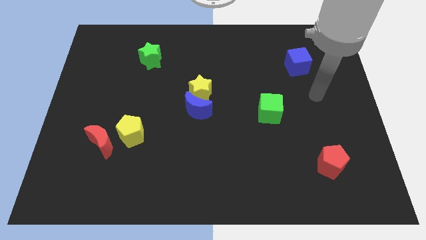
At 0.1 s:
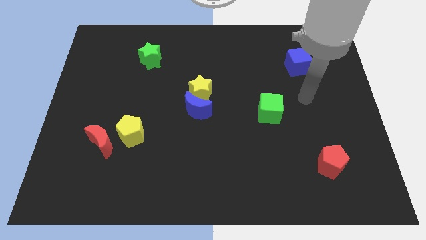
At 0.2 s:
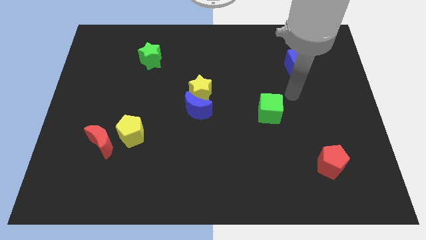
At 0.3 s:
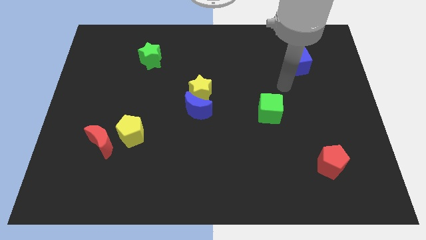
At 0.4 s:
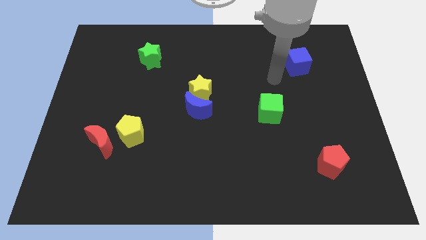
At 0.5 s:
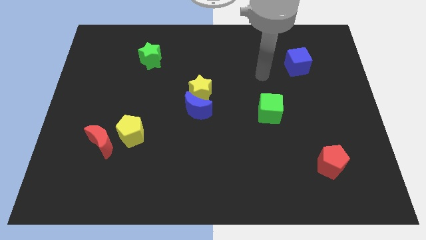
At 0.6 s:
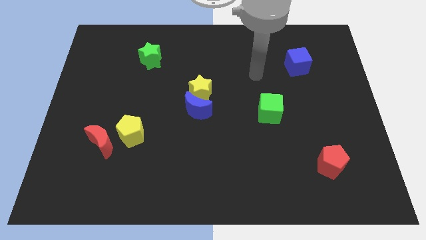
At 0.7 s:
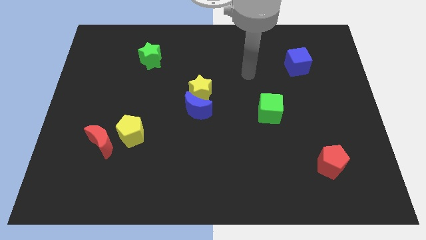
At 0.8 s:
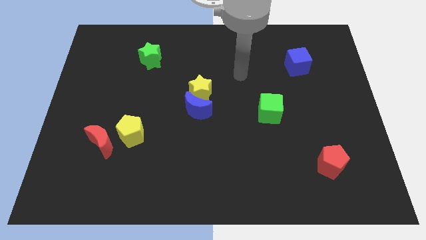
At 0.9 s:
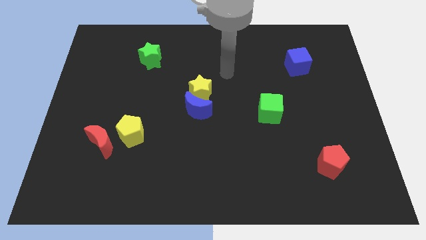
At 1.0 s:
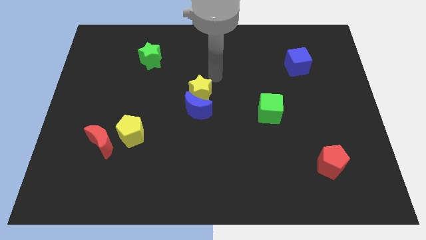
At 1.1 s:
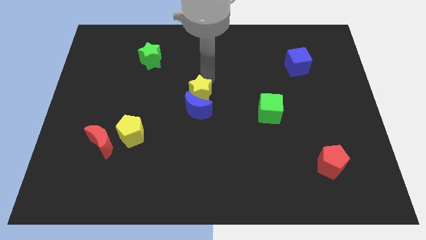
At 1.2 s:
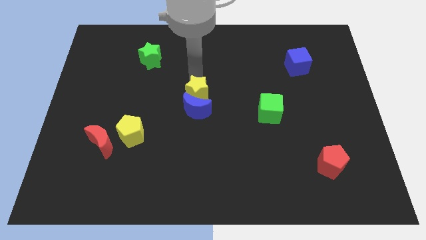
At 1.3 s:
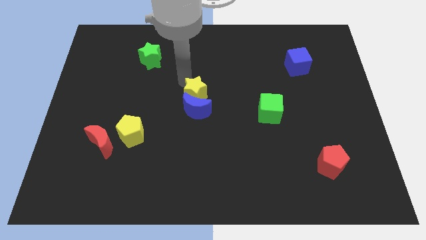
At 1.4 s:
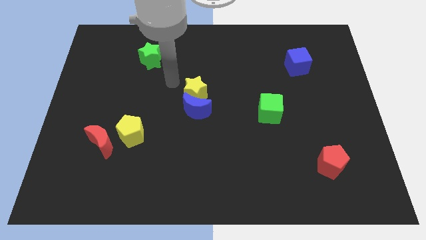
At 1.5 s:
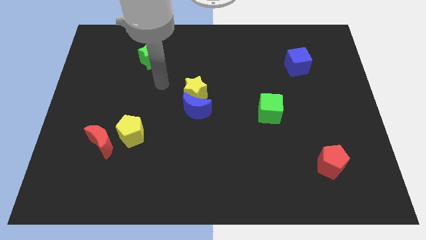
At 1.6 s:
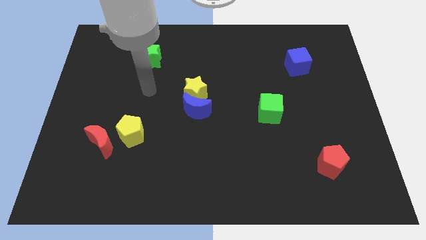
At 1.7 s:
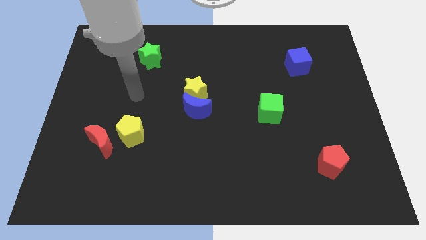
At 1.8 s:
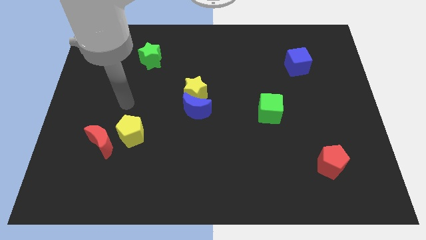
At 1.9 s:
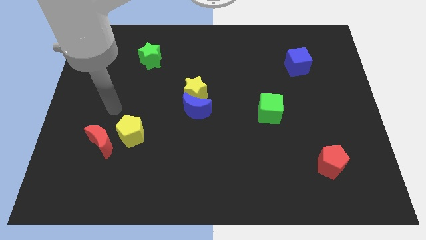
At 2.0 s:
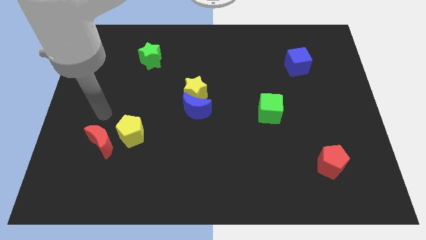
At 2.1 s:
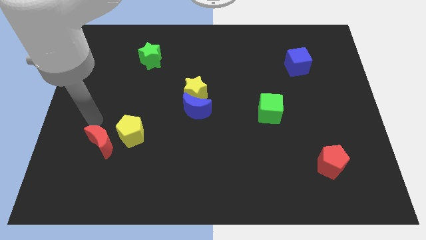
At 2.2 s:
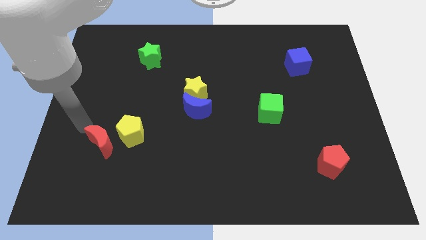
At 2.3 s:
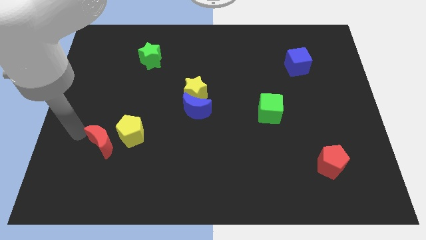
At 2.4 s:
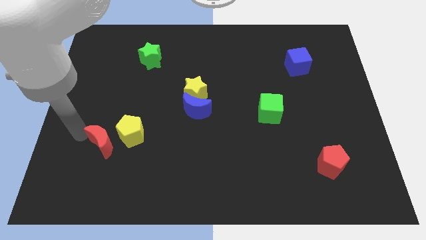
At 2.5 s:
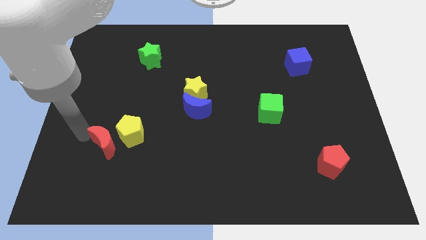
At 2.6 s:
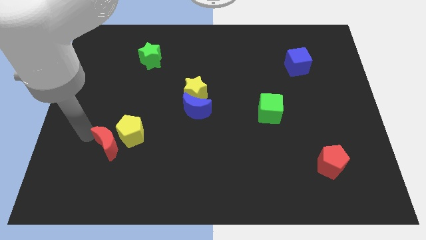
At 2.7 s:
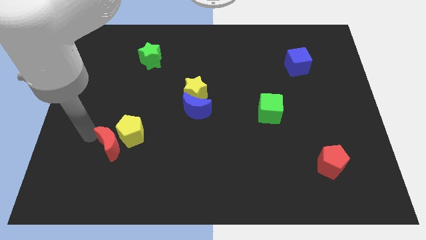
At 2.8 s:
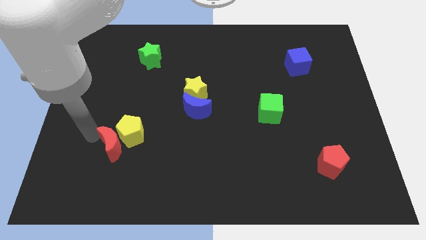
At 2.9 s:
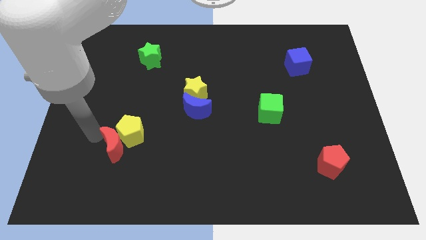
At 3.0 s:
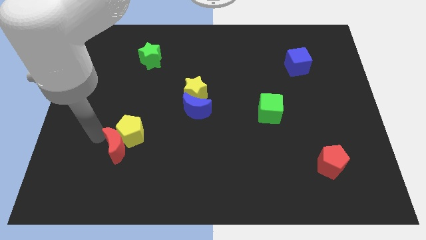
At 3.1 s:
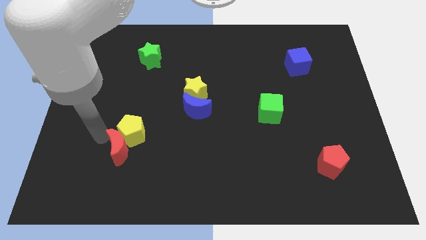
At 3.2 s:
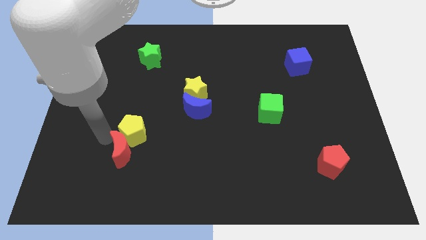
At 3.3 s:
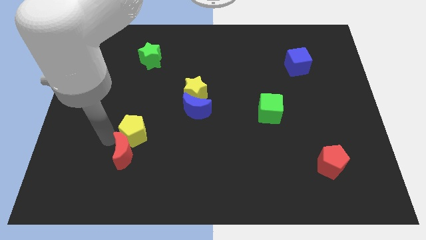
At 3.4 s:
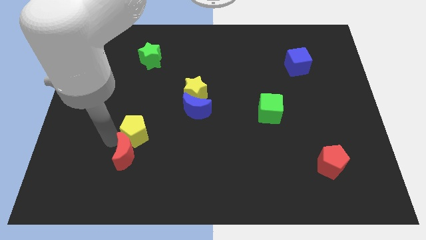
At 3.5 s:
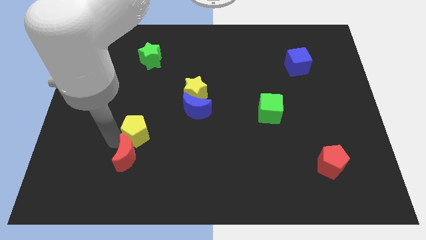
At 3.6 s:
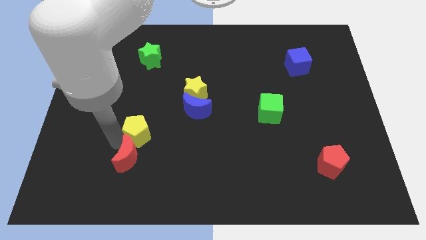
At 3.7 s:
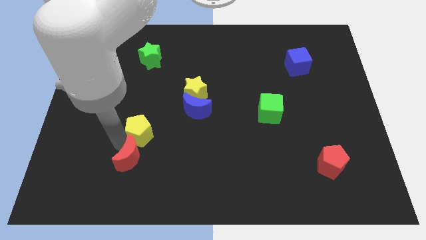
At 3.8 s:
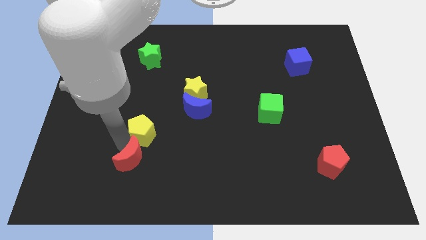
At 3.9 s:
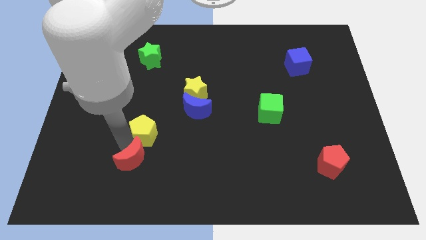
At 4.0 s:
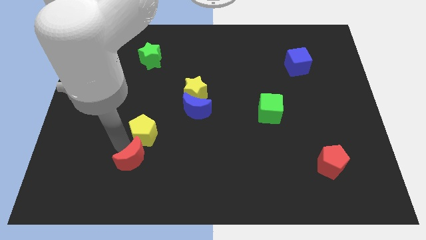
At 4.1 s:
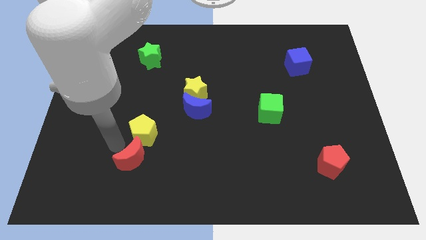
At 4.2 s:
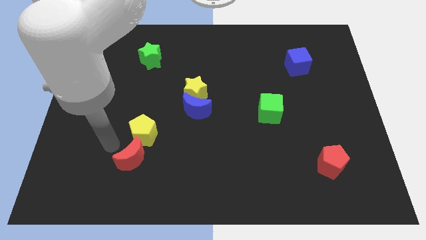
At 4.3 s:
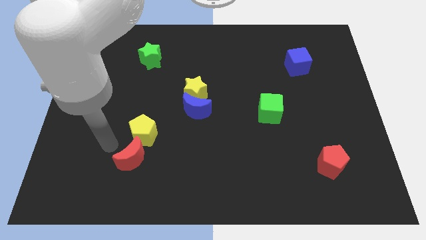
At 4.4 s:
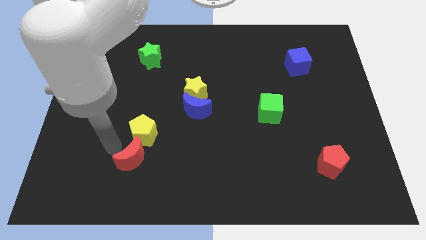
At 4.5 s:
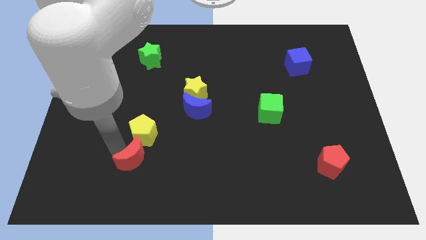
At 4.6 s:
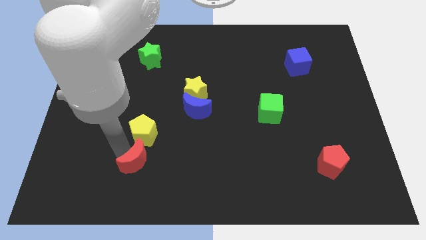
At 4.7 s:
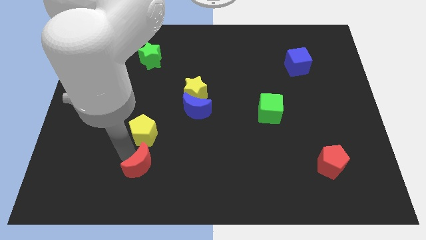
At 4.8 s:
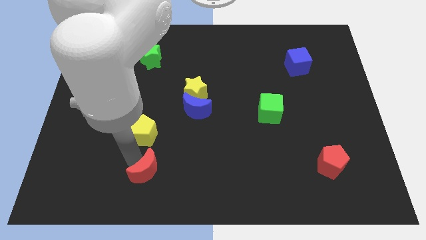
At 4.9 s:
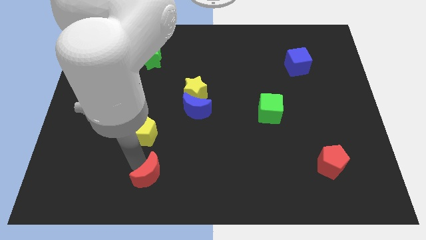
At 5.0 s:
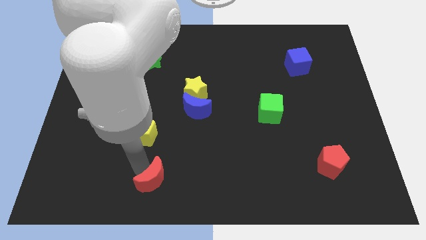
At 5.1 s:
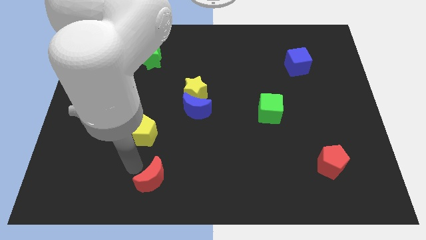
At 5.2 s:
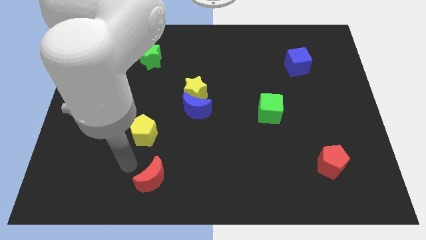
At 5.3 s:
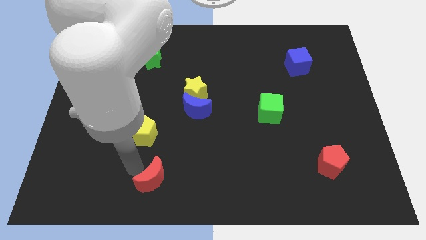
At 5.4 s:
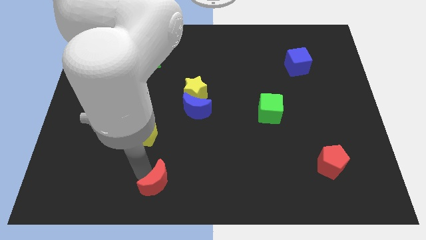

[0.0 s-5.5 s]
move the red moon to the bottom
